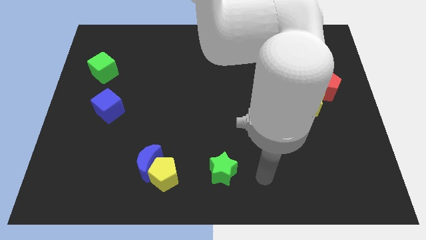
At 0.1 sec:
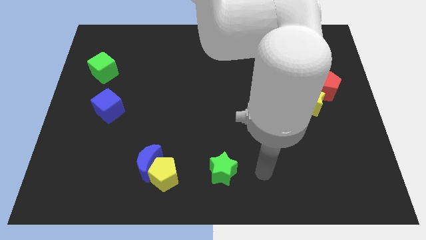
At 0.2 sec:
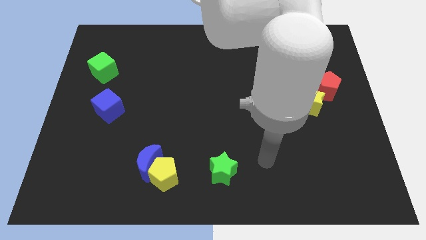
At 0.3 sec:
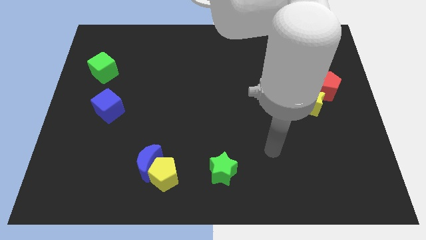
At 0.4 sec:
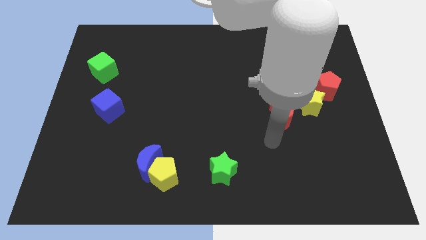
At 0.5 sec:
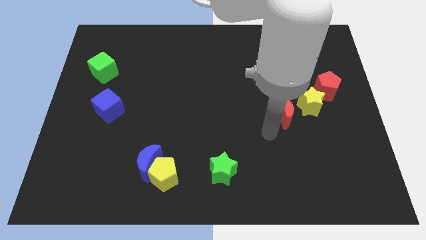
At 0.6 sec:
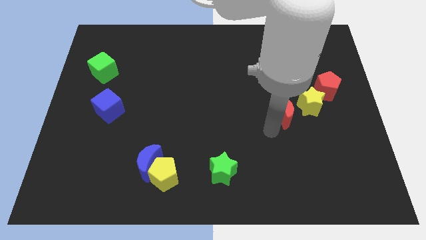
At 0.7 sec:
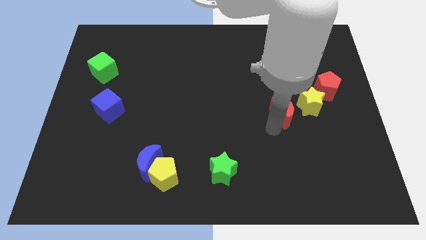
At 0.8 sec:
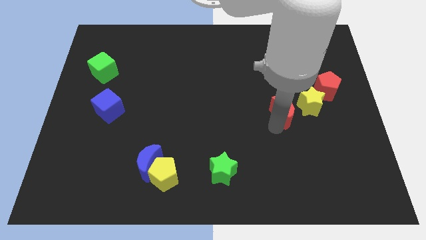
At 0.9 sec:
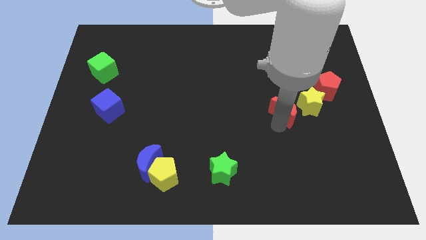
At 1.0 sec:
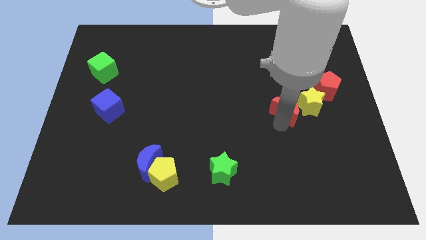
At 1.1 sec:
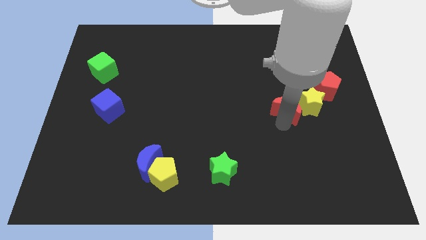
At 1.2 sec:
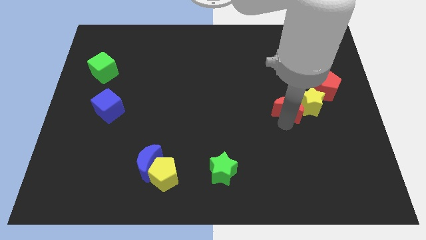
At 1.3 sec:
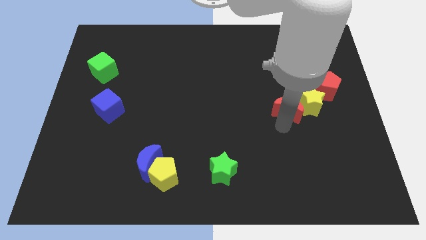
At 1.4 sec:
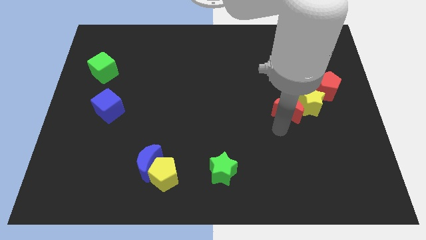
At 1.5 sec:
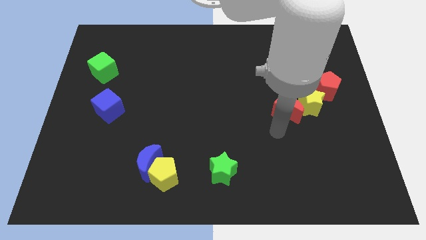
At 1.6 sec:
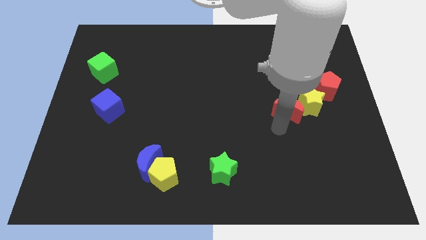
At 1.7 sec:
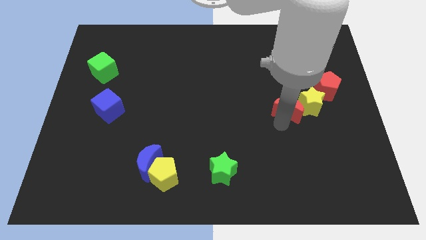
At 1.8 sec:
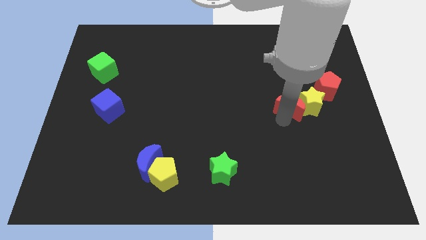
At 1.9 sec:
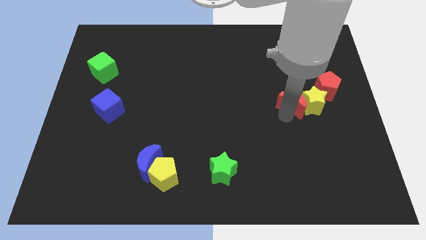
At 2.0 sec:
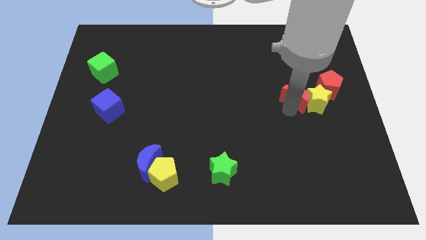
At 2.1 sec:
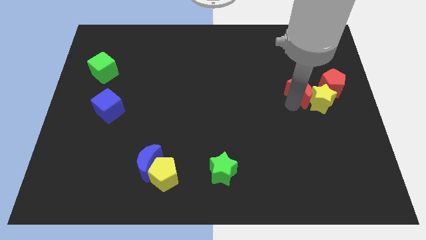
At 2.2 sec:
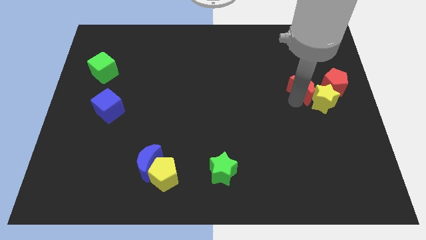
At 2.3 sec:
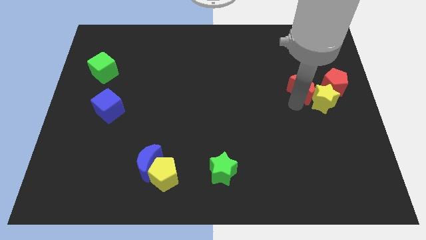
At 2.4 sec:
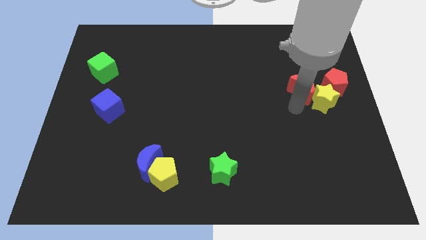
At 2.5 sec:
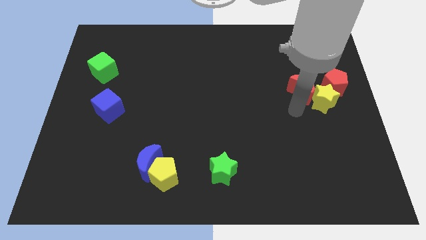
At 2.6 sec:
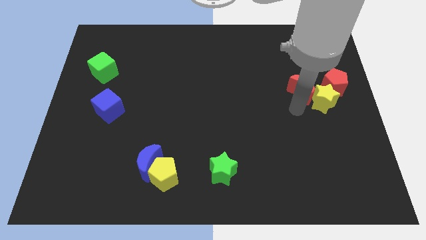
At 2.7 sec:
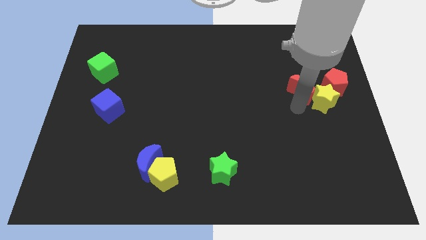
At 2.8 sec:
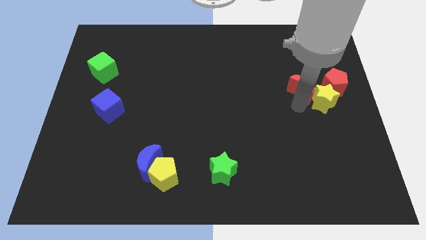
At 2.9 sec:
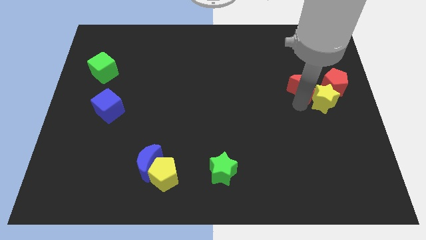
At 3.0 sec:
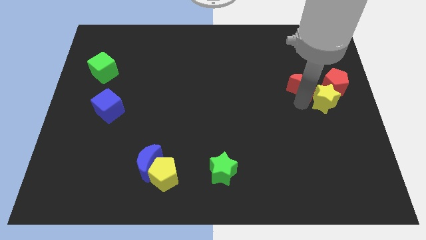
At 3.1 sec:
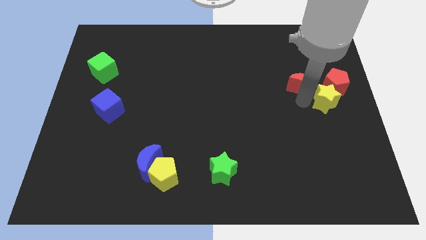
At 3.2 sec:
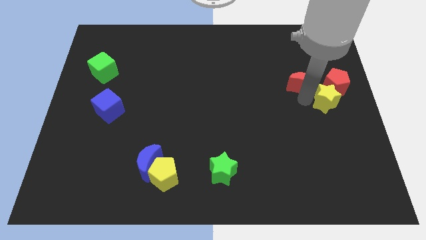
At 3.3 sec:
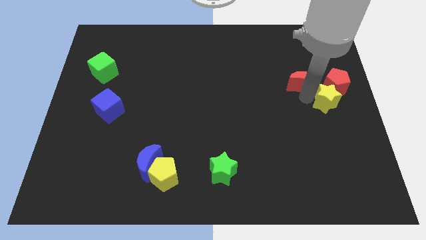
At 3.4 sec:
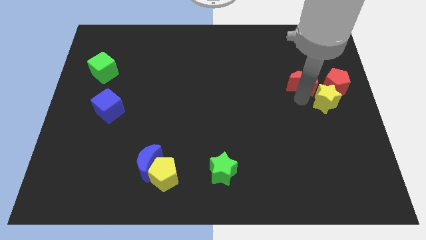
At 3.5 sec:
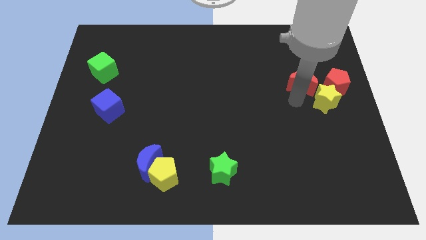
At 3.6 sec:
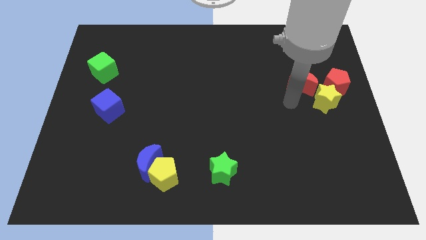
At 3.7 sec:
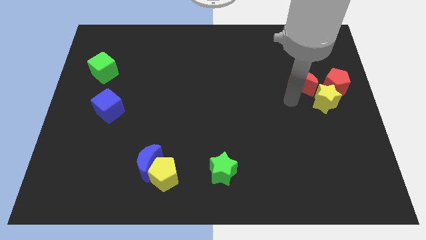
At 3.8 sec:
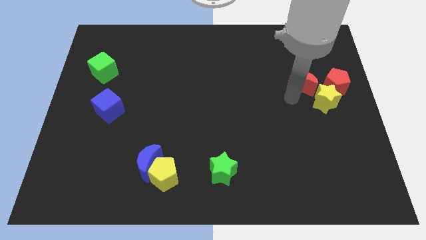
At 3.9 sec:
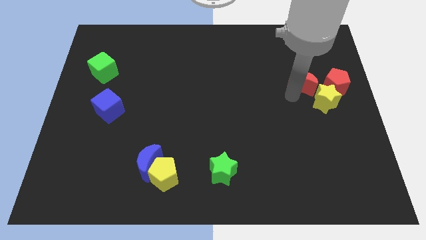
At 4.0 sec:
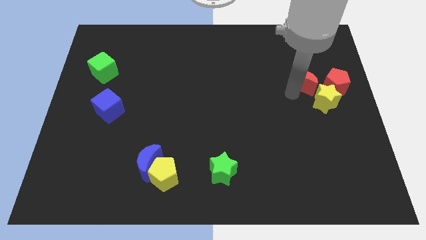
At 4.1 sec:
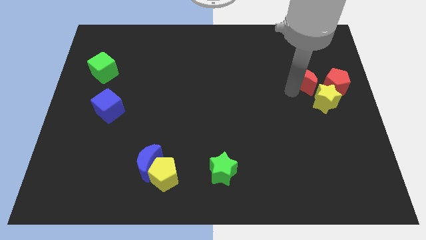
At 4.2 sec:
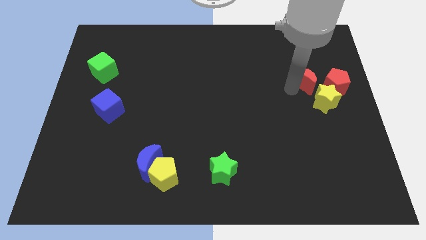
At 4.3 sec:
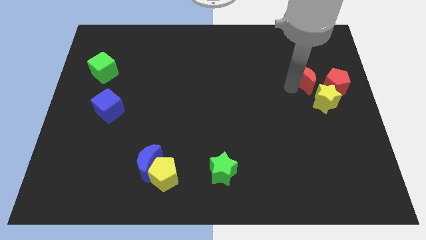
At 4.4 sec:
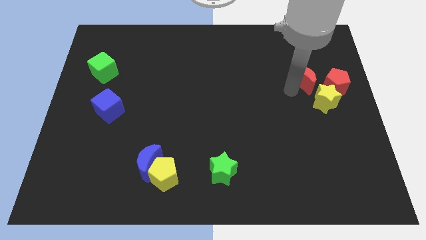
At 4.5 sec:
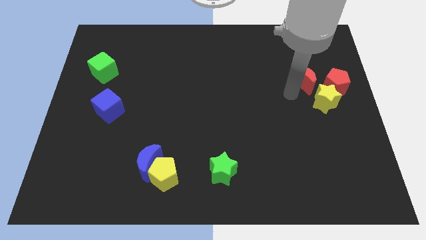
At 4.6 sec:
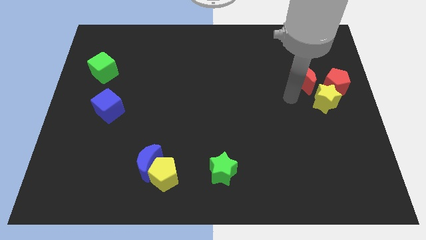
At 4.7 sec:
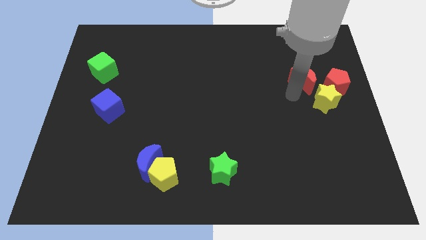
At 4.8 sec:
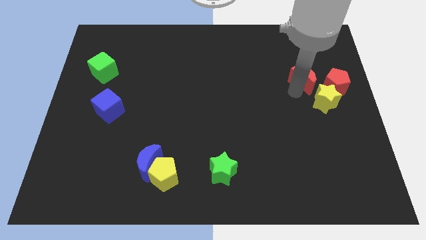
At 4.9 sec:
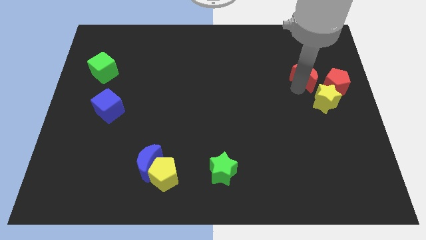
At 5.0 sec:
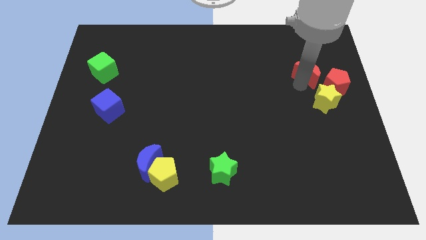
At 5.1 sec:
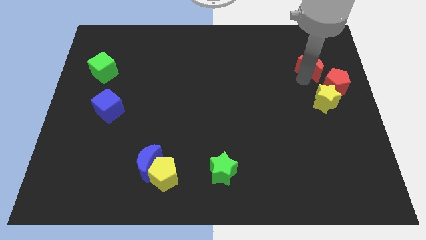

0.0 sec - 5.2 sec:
put the red moon to the top of the red pentagon

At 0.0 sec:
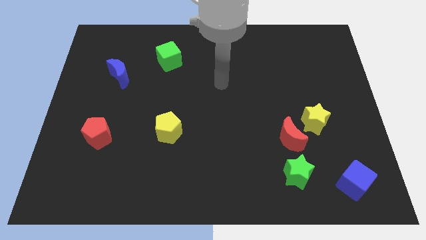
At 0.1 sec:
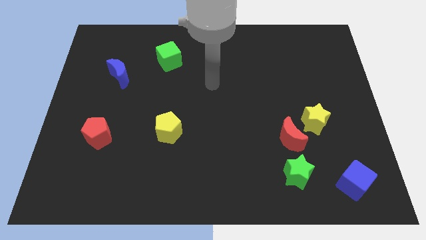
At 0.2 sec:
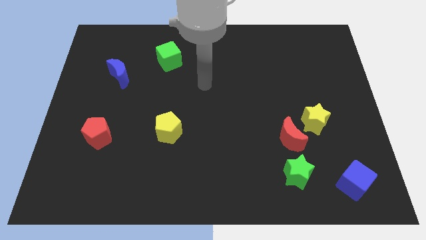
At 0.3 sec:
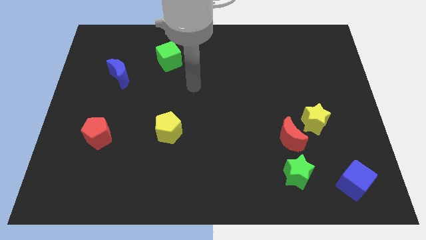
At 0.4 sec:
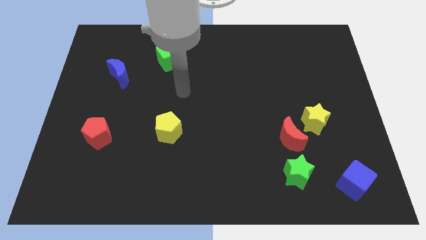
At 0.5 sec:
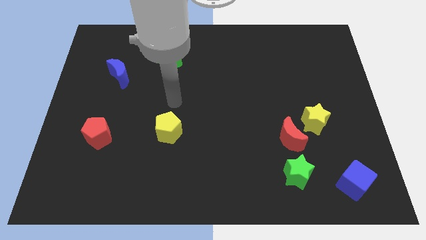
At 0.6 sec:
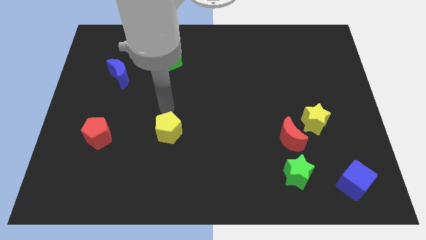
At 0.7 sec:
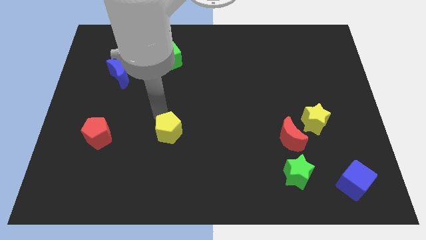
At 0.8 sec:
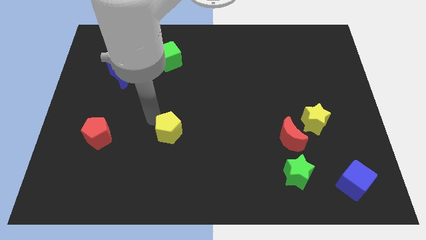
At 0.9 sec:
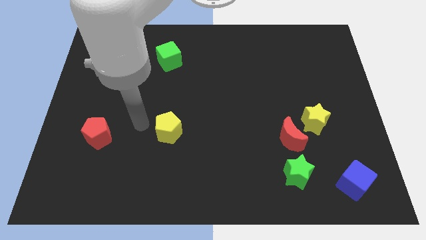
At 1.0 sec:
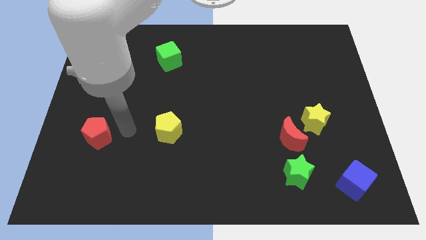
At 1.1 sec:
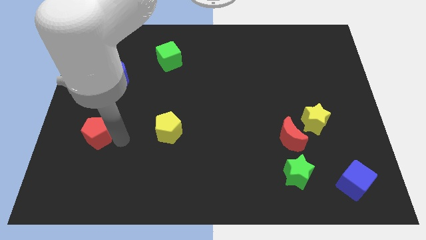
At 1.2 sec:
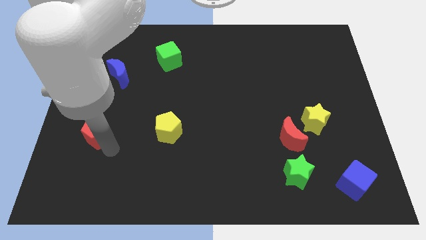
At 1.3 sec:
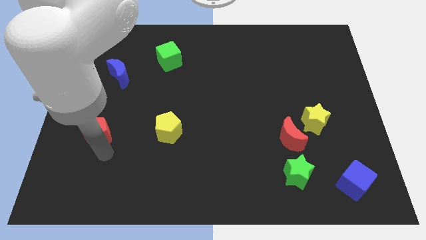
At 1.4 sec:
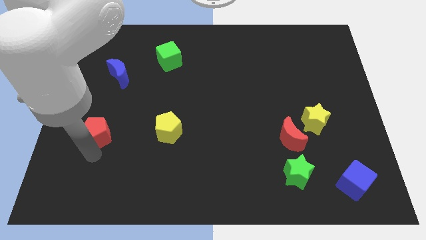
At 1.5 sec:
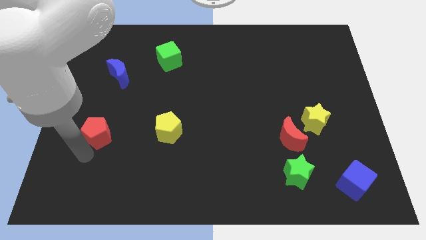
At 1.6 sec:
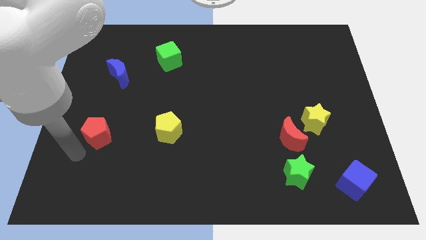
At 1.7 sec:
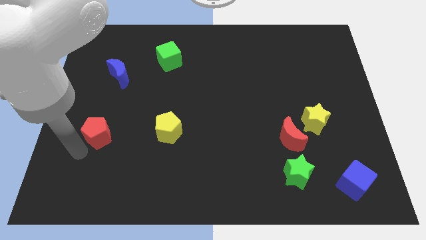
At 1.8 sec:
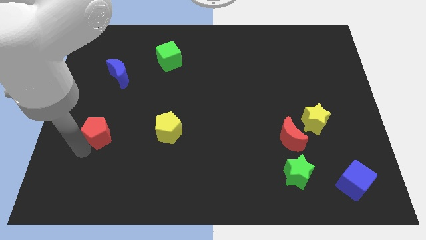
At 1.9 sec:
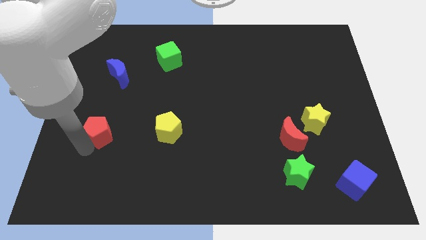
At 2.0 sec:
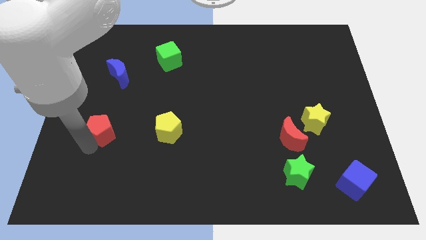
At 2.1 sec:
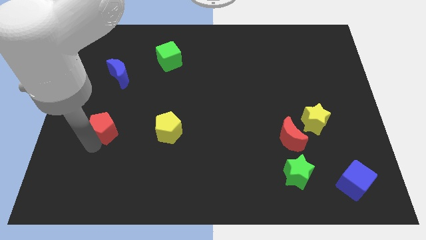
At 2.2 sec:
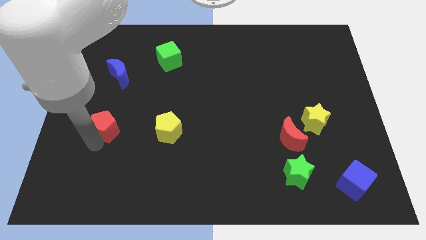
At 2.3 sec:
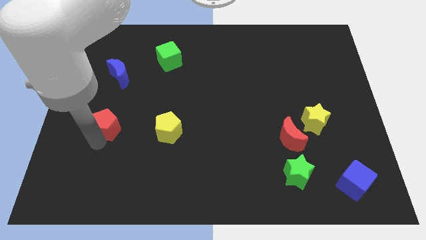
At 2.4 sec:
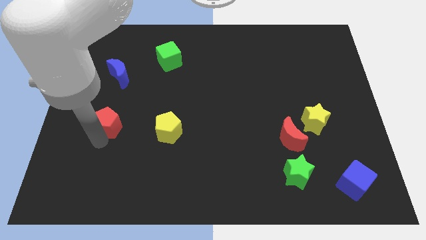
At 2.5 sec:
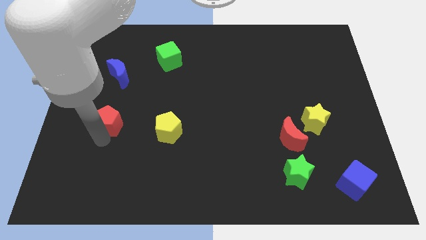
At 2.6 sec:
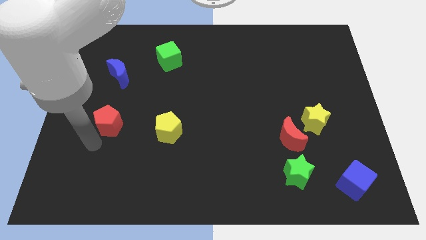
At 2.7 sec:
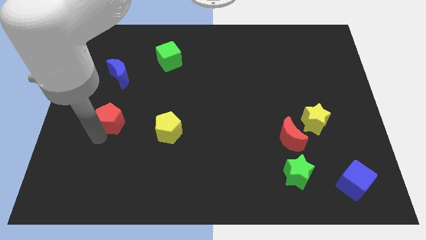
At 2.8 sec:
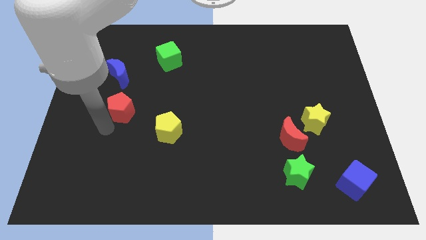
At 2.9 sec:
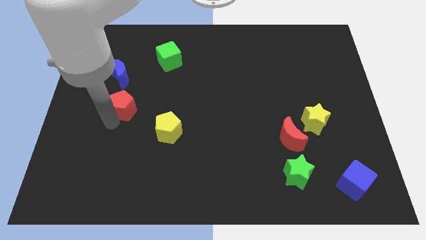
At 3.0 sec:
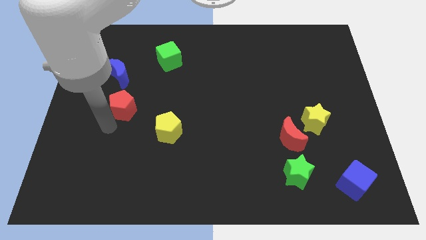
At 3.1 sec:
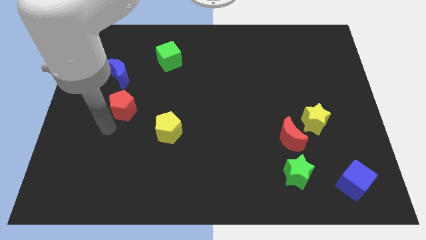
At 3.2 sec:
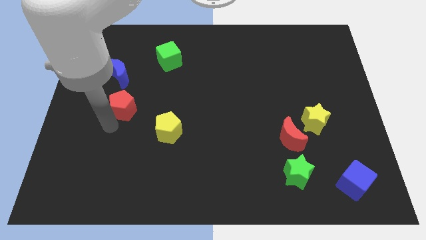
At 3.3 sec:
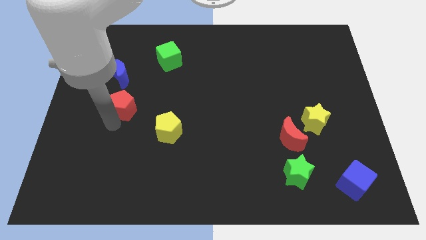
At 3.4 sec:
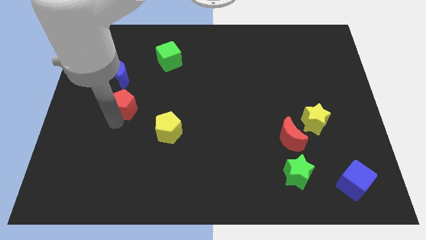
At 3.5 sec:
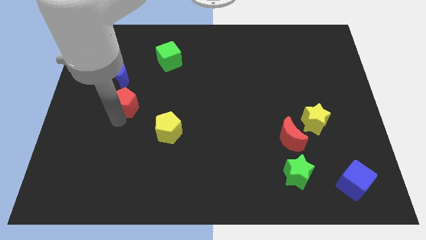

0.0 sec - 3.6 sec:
push the red pentagon to the bottom right of the blue moon
